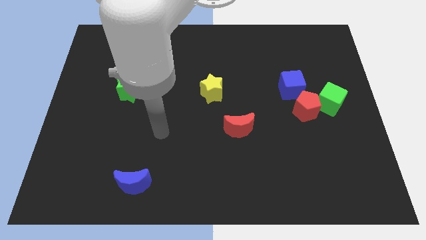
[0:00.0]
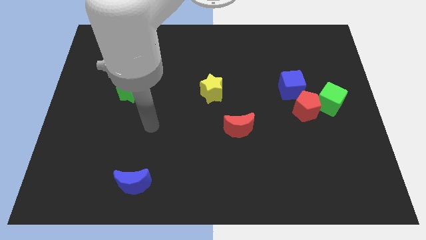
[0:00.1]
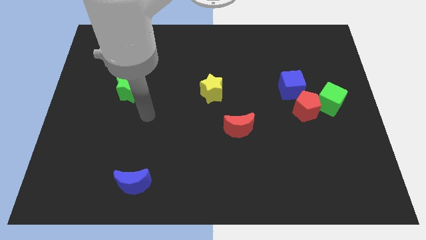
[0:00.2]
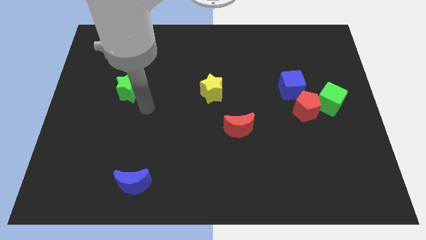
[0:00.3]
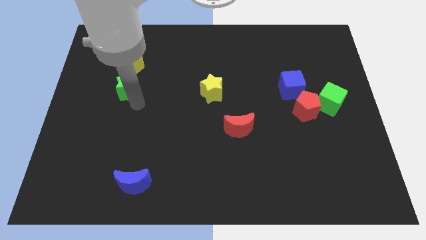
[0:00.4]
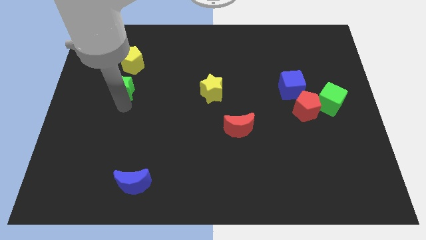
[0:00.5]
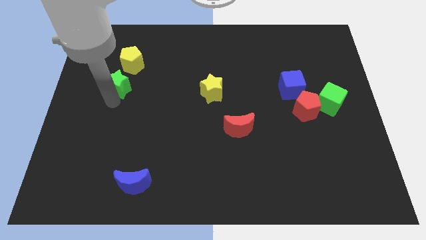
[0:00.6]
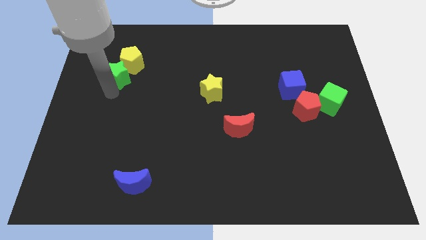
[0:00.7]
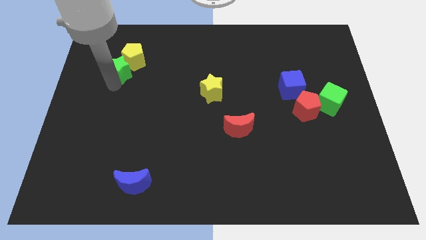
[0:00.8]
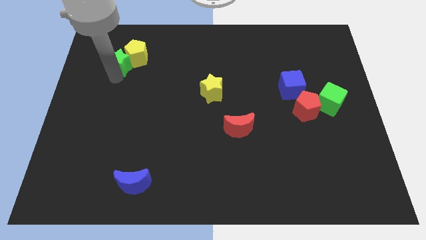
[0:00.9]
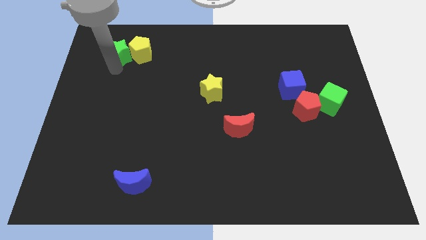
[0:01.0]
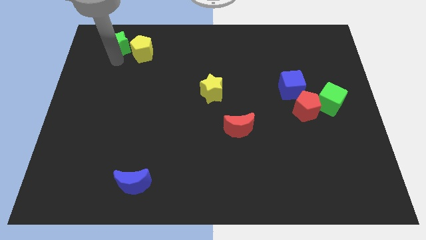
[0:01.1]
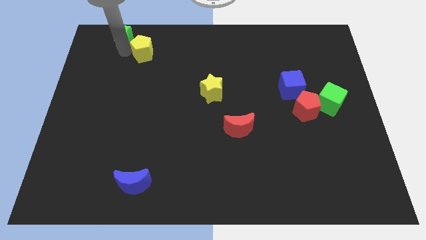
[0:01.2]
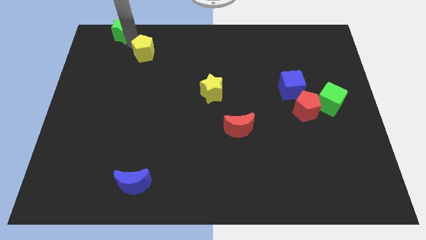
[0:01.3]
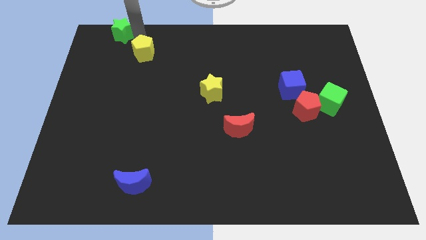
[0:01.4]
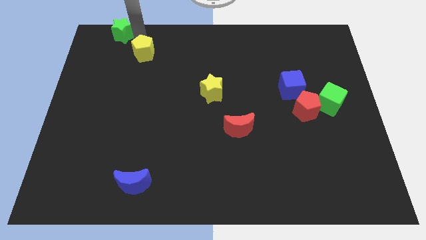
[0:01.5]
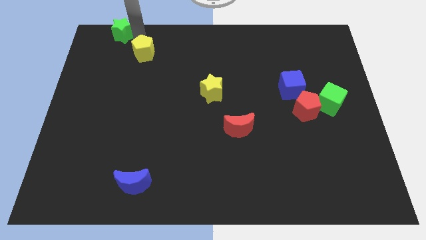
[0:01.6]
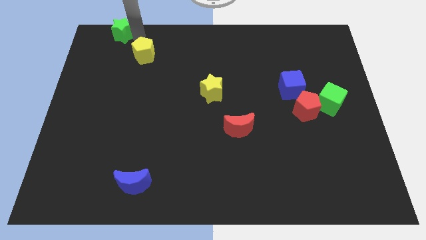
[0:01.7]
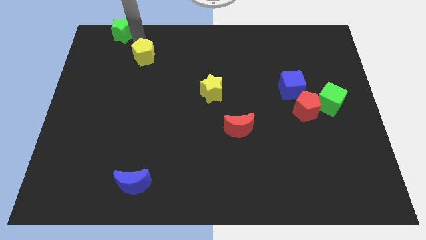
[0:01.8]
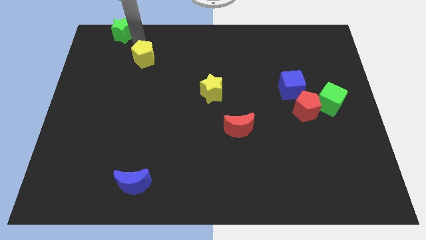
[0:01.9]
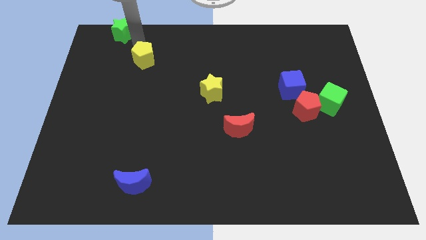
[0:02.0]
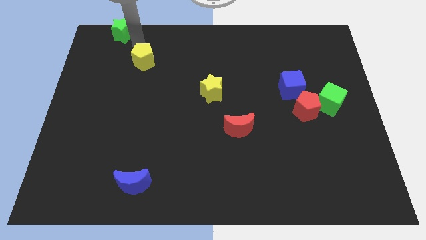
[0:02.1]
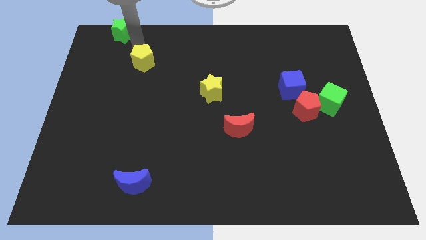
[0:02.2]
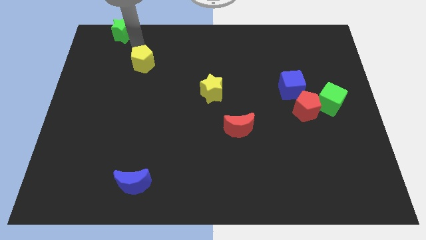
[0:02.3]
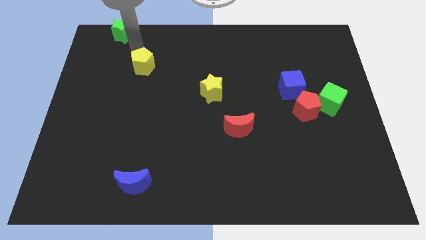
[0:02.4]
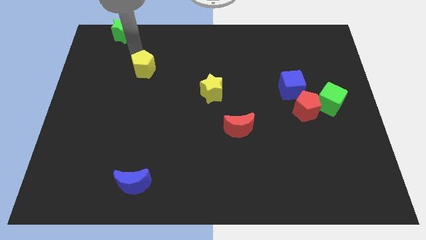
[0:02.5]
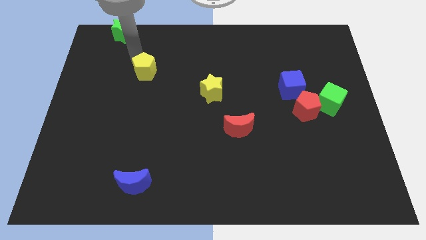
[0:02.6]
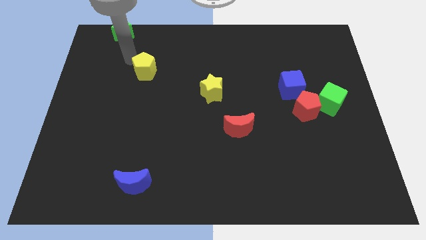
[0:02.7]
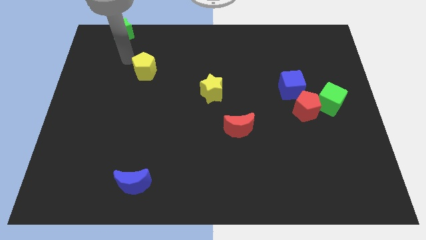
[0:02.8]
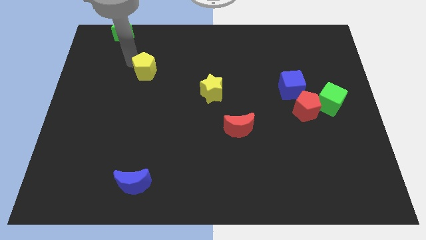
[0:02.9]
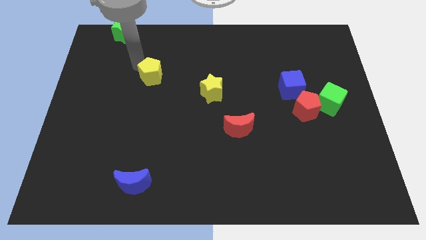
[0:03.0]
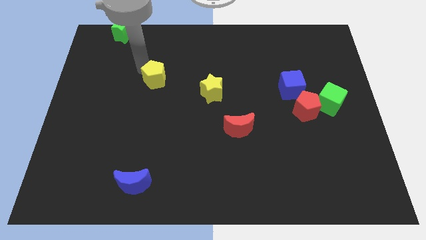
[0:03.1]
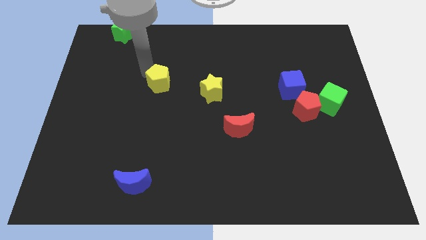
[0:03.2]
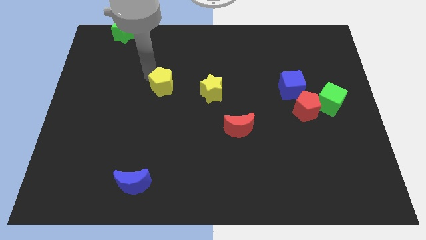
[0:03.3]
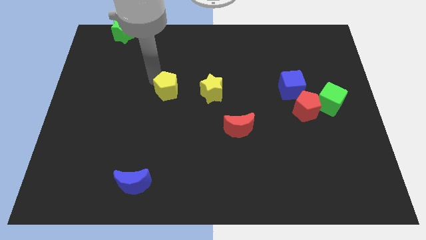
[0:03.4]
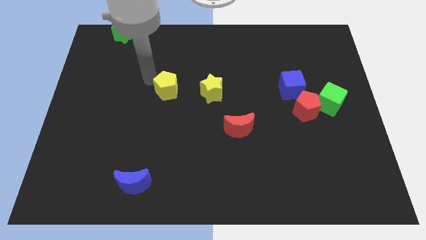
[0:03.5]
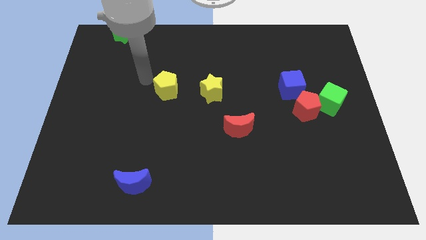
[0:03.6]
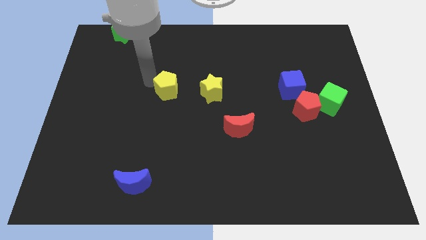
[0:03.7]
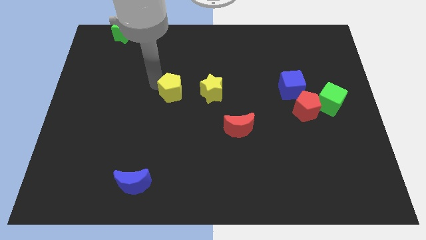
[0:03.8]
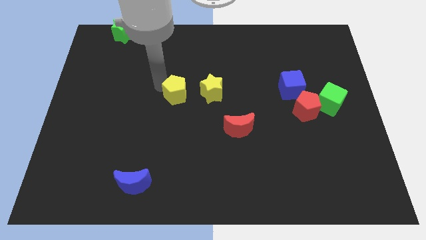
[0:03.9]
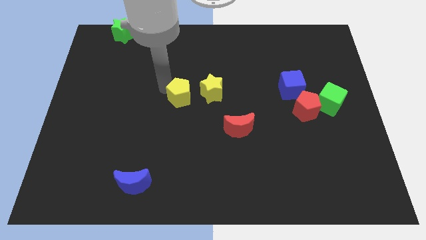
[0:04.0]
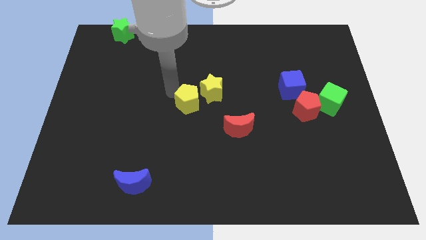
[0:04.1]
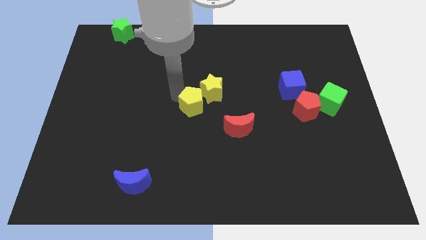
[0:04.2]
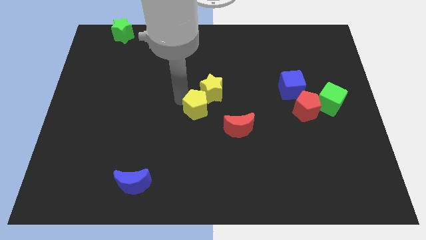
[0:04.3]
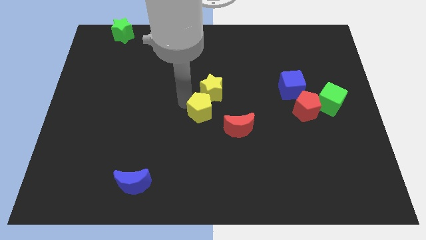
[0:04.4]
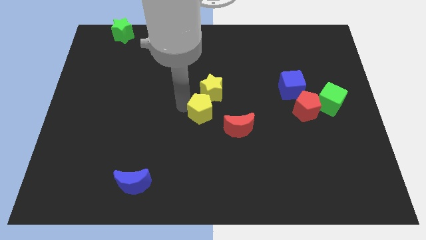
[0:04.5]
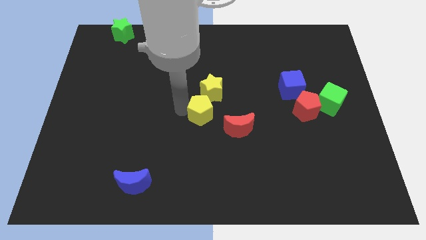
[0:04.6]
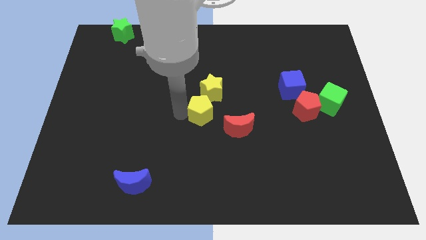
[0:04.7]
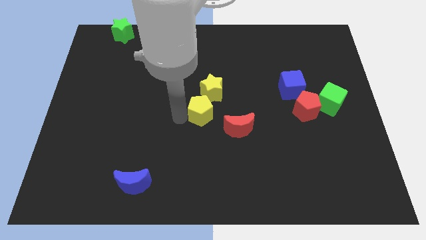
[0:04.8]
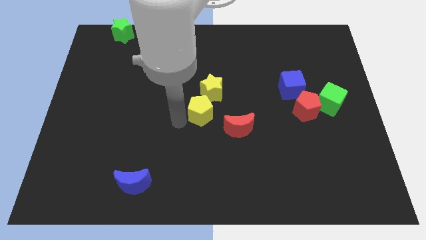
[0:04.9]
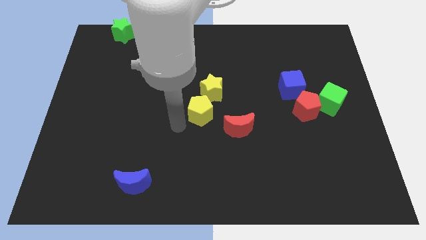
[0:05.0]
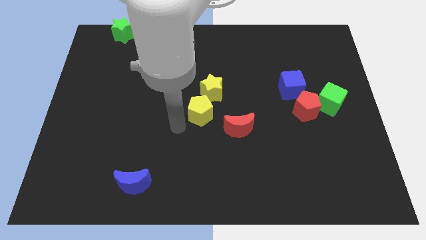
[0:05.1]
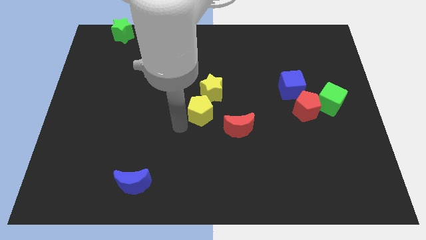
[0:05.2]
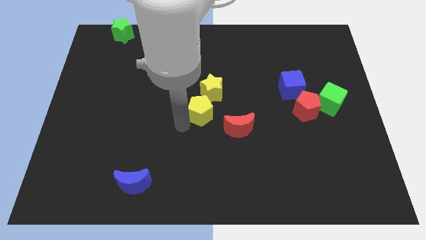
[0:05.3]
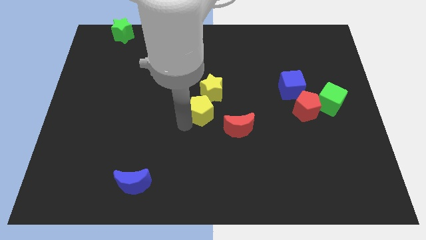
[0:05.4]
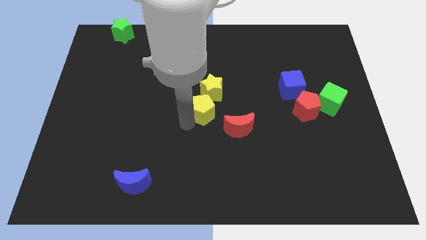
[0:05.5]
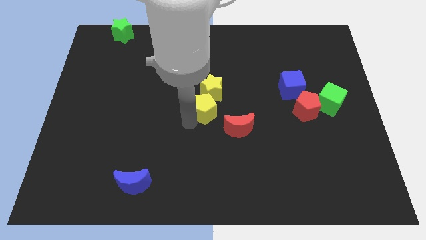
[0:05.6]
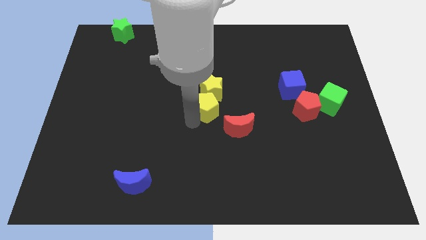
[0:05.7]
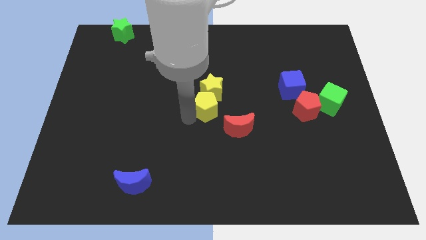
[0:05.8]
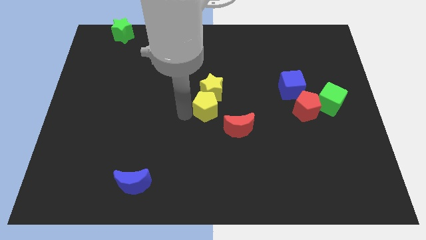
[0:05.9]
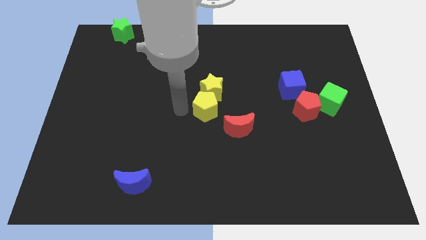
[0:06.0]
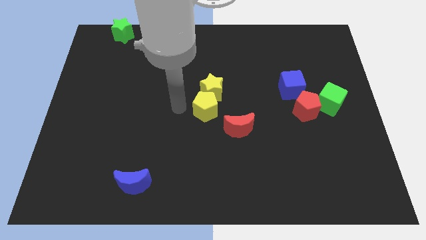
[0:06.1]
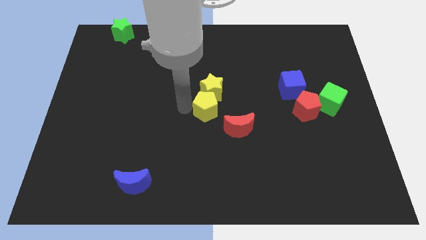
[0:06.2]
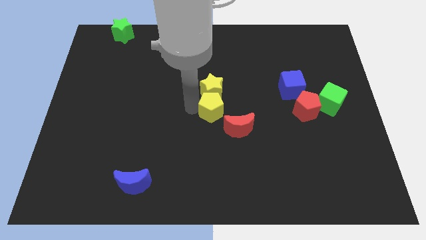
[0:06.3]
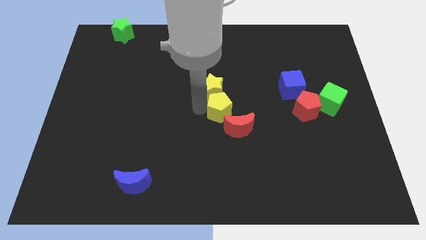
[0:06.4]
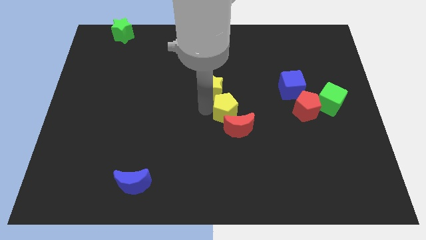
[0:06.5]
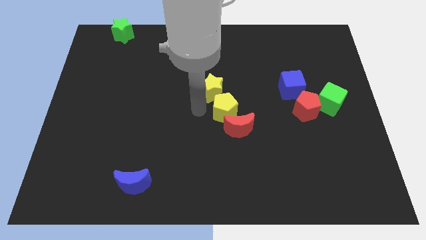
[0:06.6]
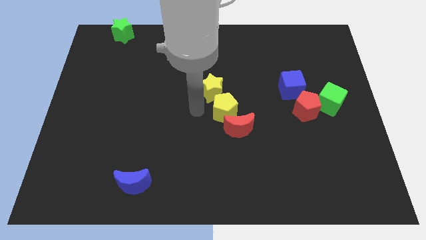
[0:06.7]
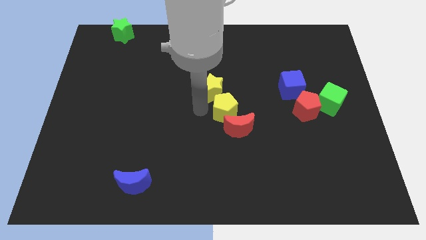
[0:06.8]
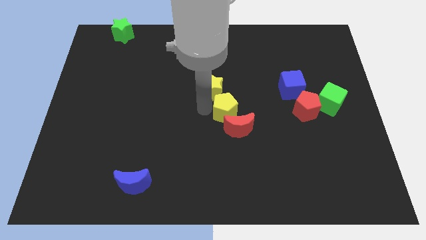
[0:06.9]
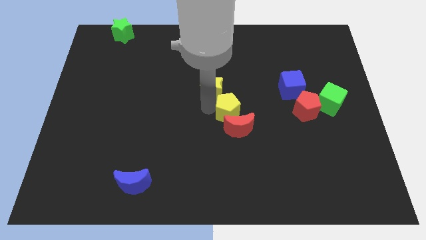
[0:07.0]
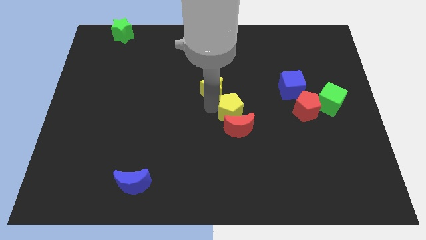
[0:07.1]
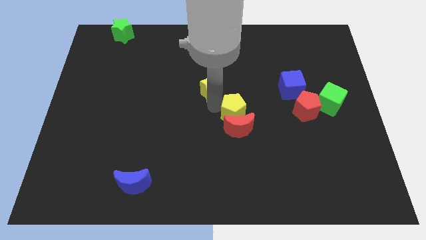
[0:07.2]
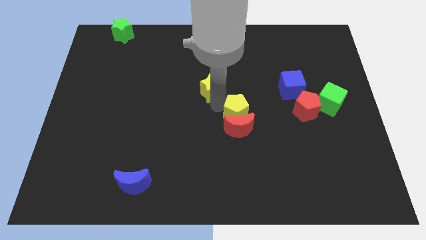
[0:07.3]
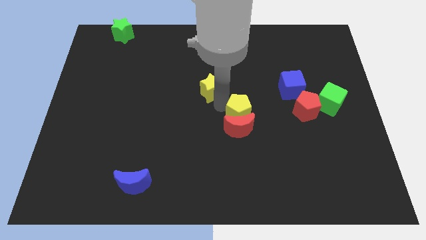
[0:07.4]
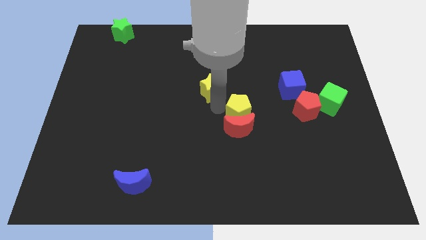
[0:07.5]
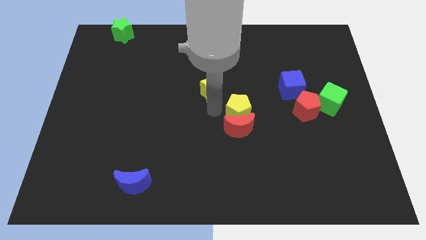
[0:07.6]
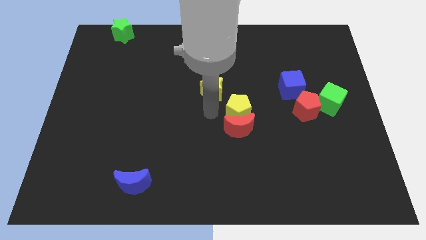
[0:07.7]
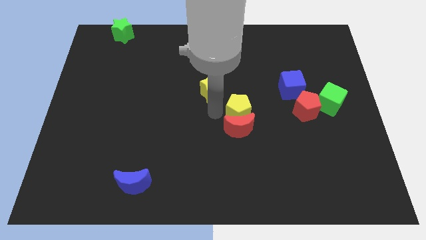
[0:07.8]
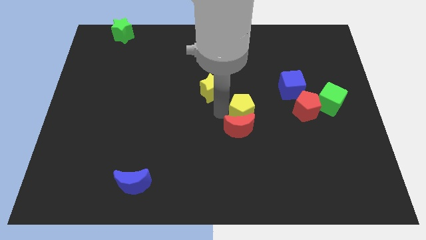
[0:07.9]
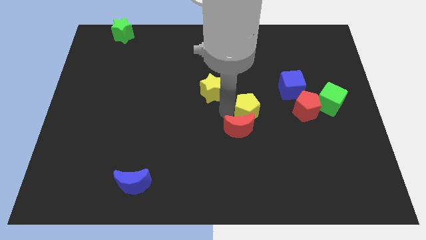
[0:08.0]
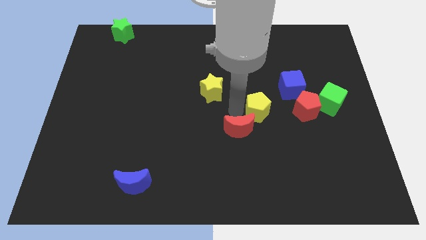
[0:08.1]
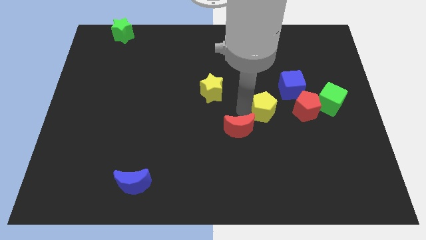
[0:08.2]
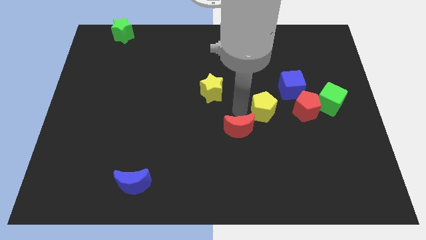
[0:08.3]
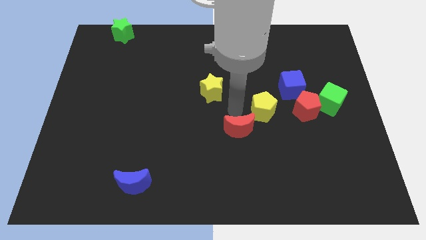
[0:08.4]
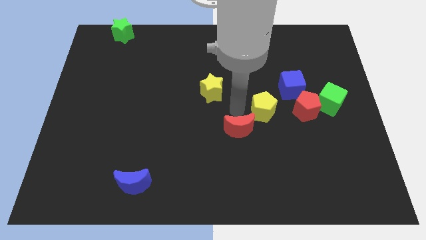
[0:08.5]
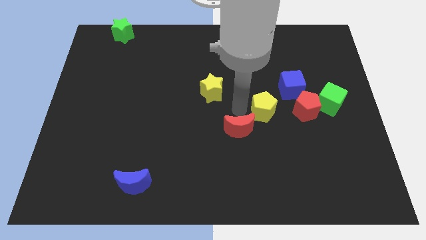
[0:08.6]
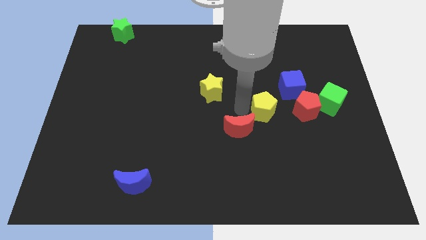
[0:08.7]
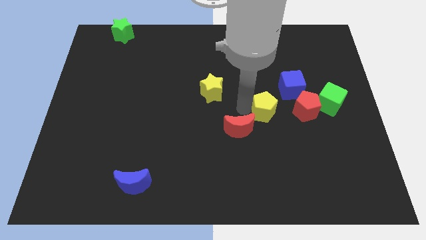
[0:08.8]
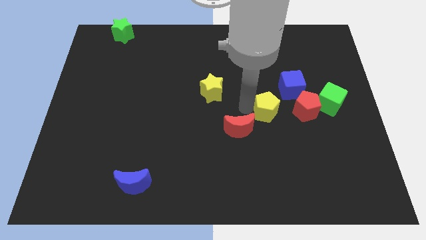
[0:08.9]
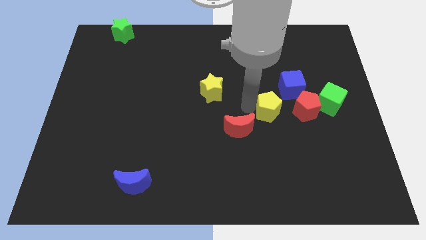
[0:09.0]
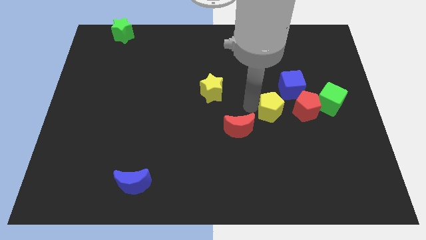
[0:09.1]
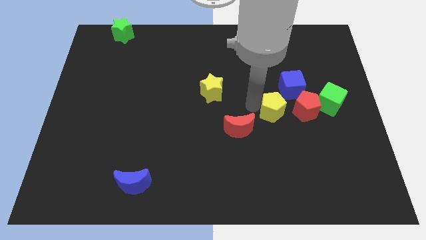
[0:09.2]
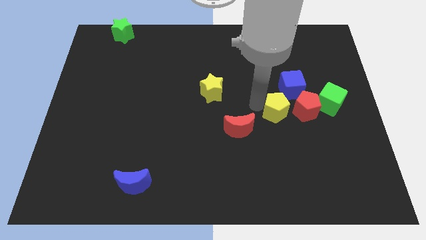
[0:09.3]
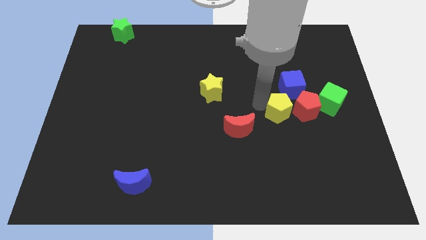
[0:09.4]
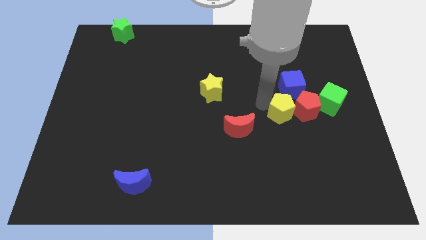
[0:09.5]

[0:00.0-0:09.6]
put the yellow pentagon to the red pentagon
